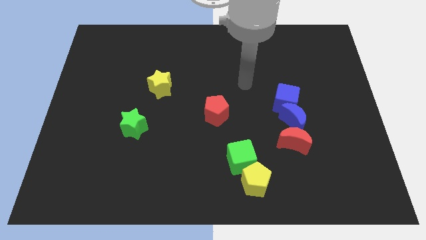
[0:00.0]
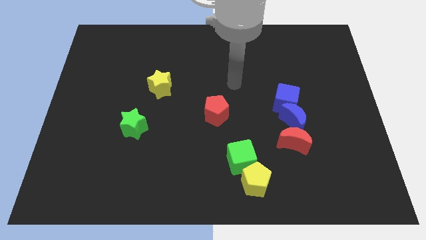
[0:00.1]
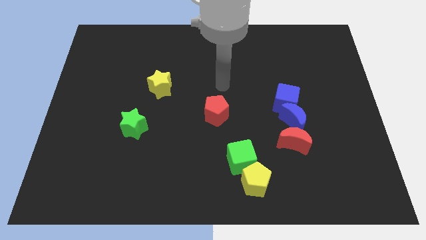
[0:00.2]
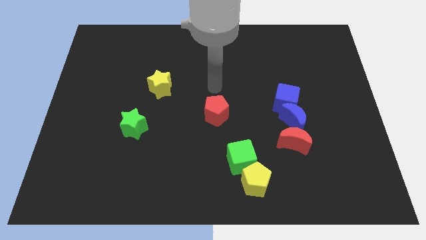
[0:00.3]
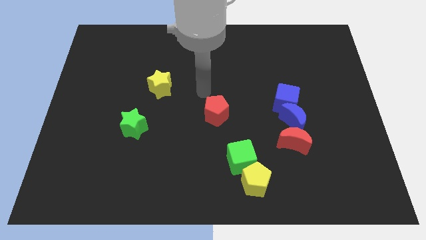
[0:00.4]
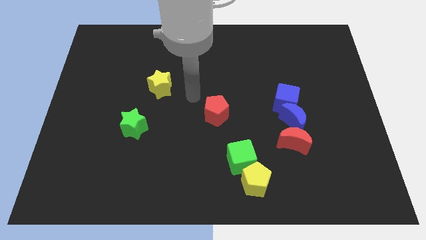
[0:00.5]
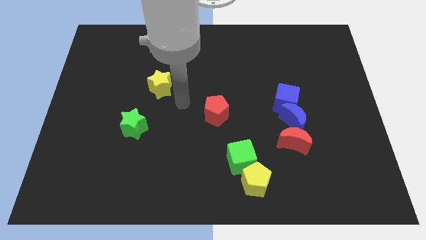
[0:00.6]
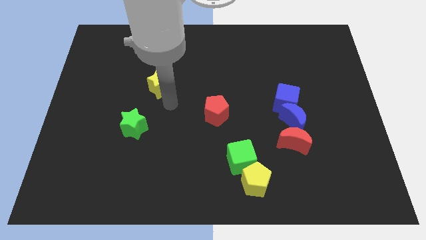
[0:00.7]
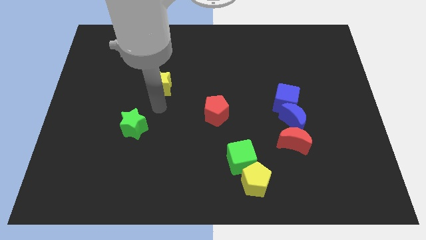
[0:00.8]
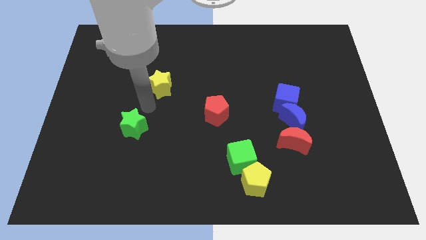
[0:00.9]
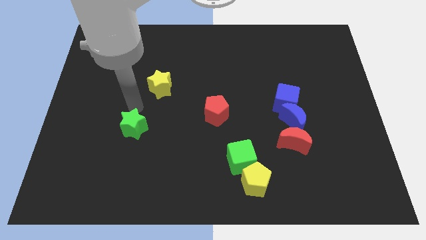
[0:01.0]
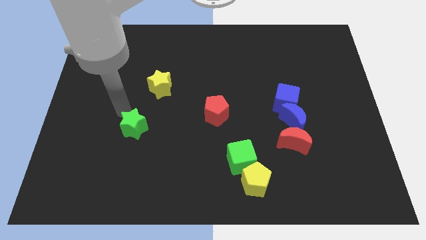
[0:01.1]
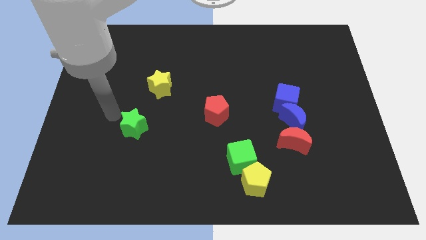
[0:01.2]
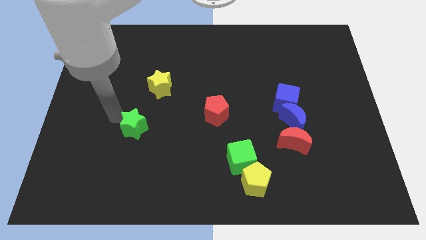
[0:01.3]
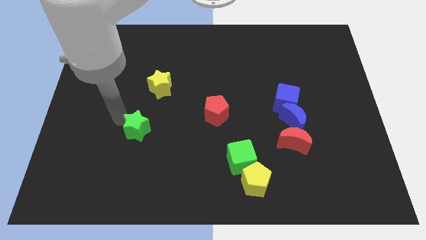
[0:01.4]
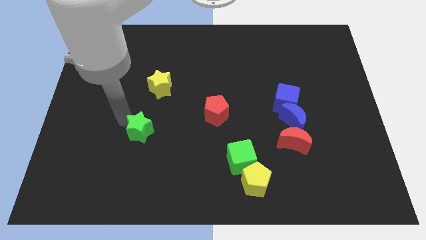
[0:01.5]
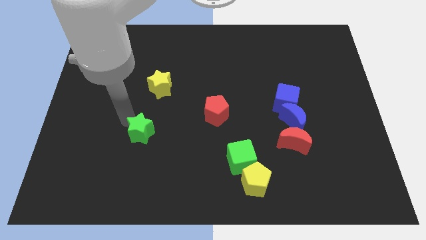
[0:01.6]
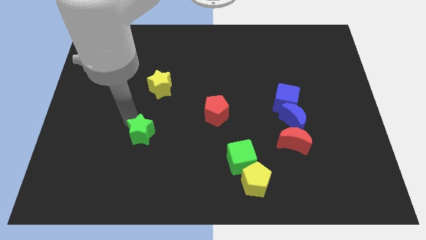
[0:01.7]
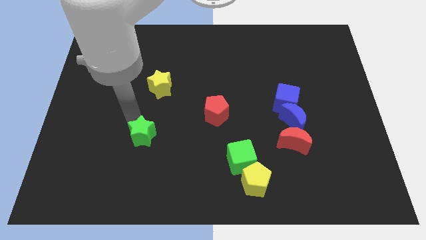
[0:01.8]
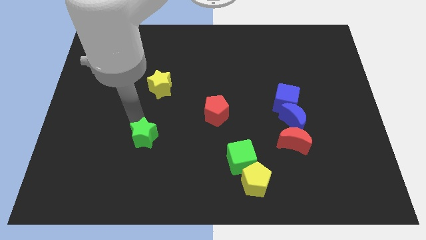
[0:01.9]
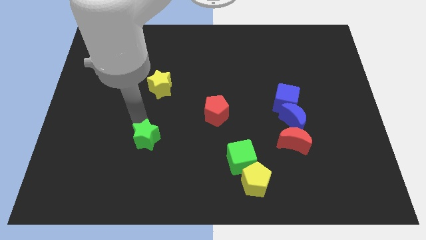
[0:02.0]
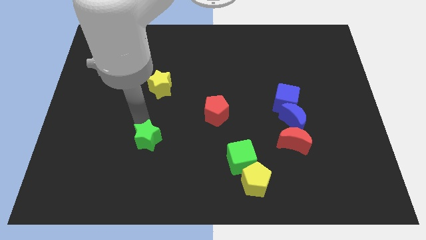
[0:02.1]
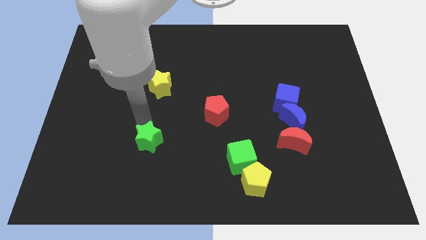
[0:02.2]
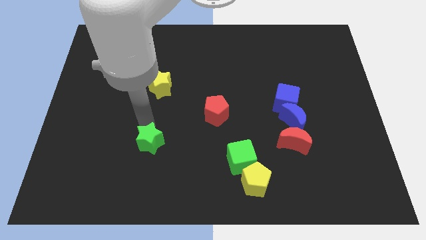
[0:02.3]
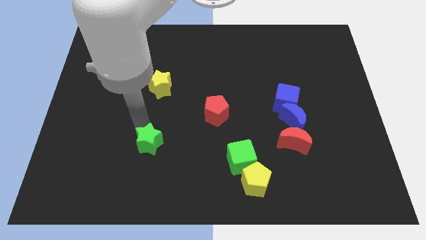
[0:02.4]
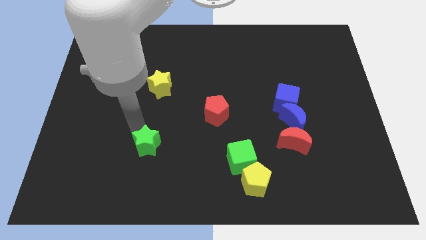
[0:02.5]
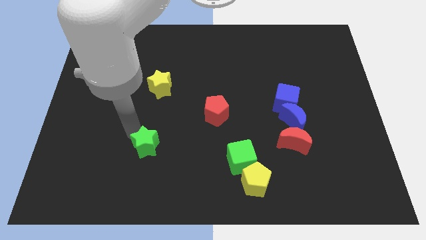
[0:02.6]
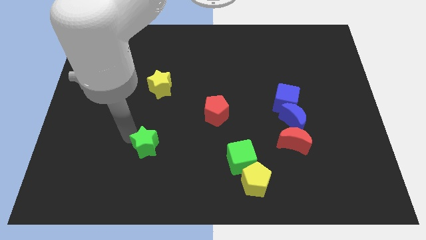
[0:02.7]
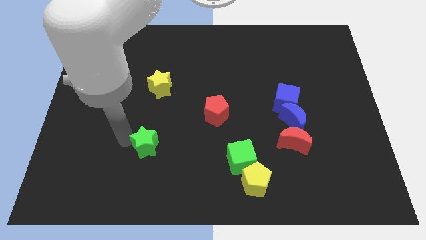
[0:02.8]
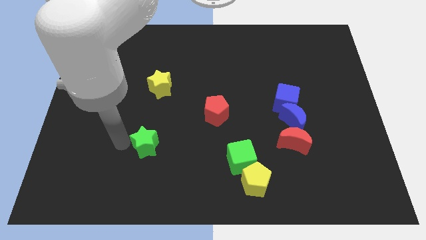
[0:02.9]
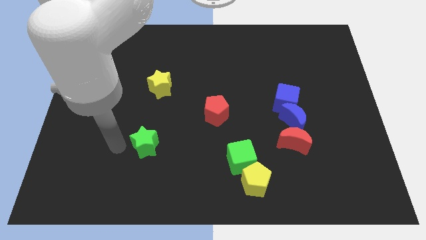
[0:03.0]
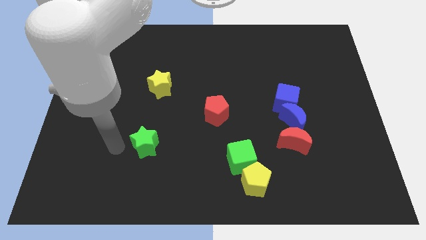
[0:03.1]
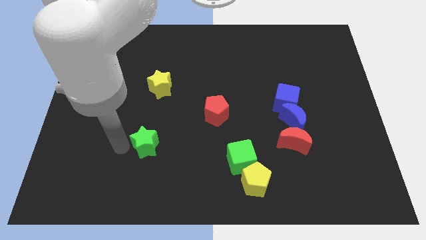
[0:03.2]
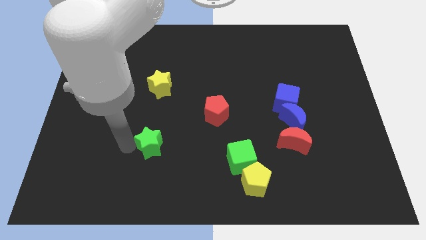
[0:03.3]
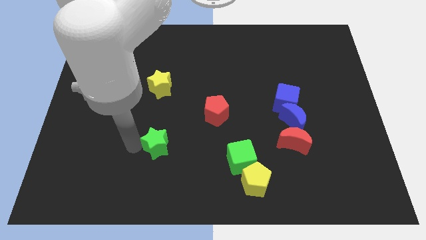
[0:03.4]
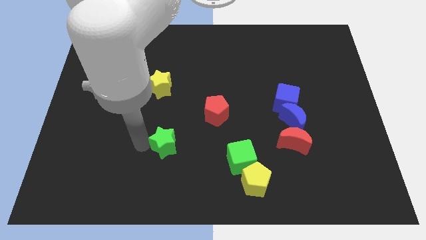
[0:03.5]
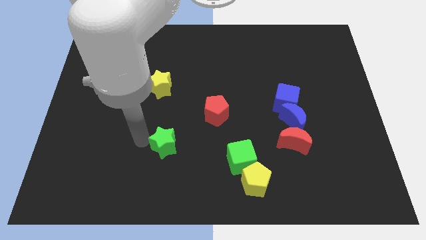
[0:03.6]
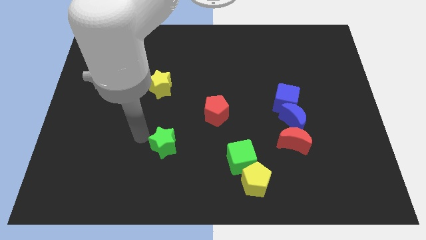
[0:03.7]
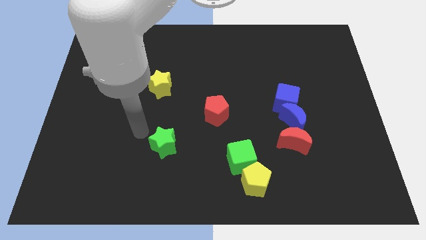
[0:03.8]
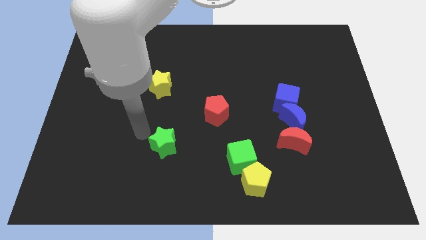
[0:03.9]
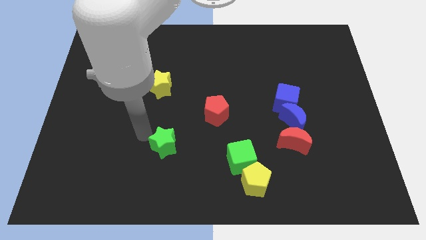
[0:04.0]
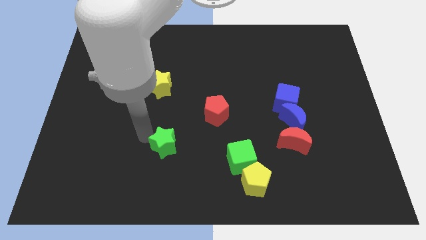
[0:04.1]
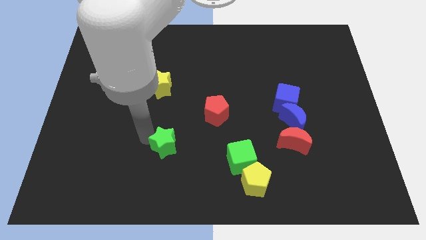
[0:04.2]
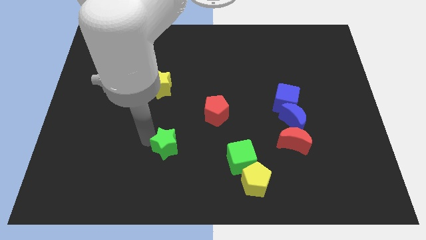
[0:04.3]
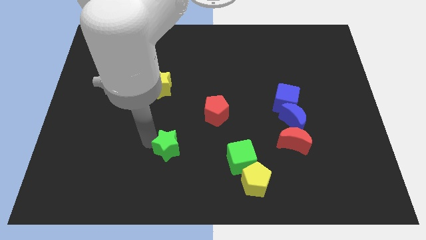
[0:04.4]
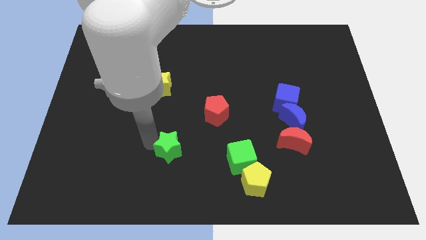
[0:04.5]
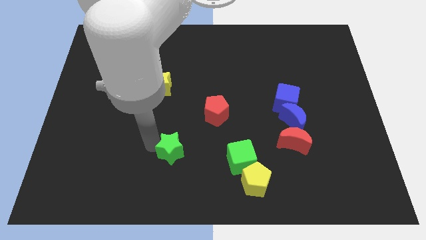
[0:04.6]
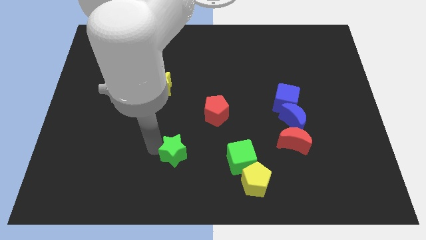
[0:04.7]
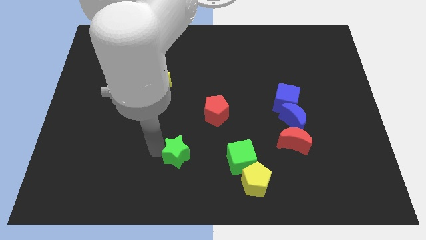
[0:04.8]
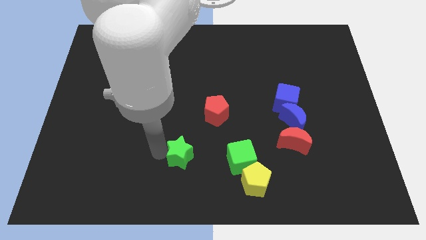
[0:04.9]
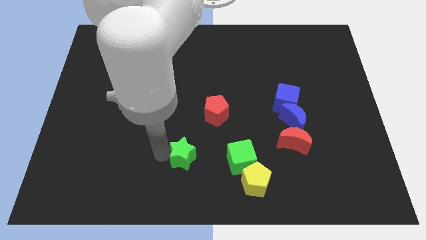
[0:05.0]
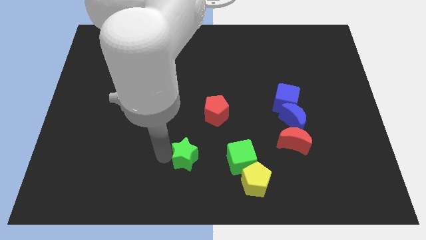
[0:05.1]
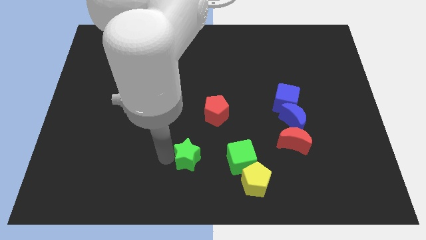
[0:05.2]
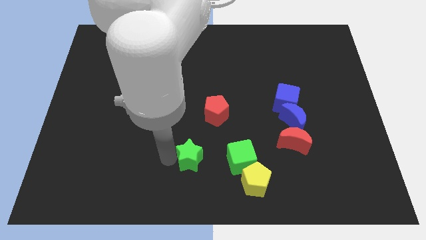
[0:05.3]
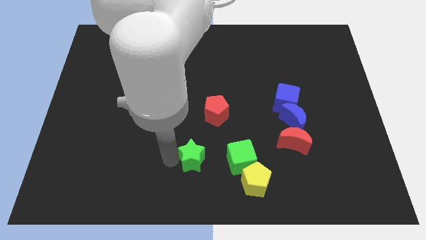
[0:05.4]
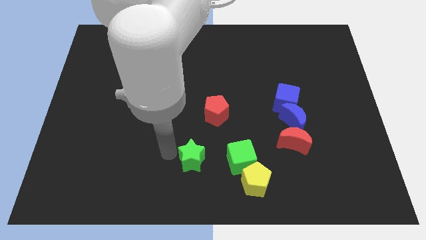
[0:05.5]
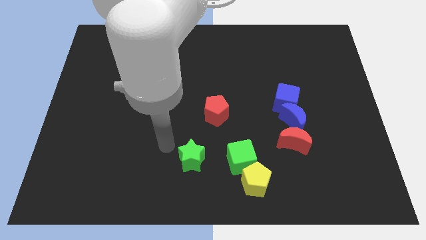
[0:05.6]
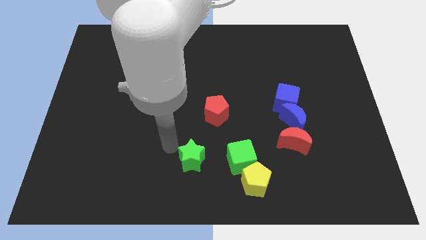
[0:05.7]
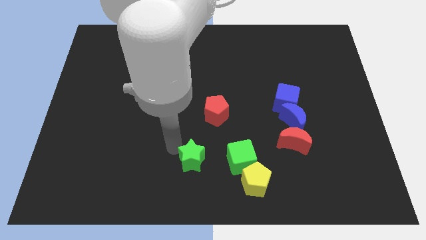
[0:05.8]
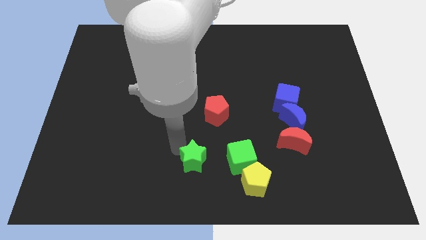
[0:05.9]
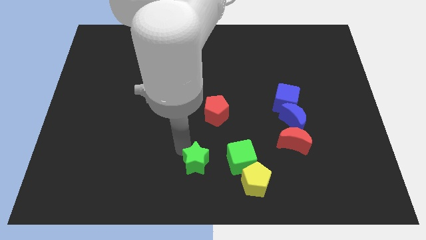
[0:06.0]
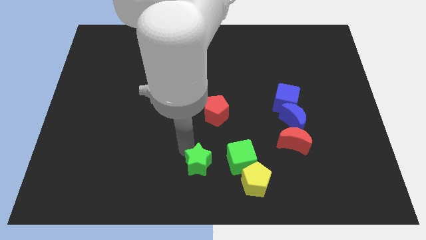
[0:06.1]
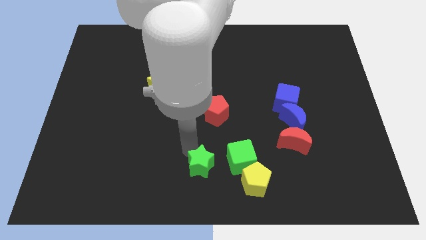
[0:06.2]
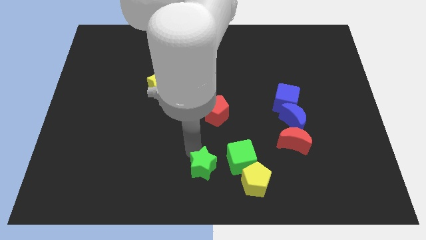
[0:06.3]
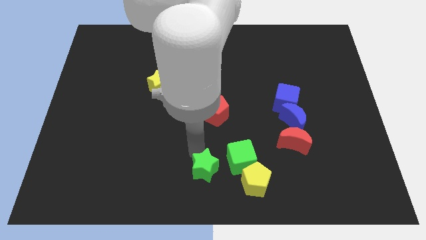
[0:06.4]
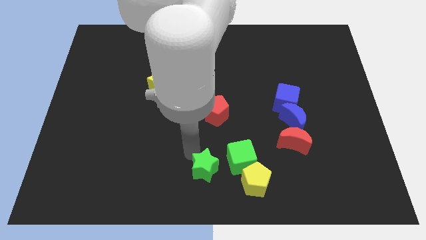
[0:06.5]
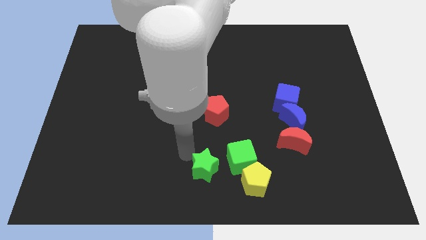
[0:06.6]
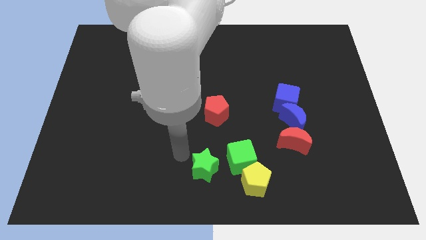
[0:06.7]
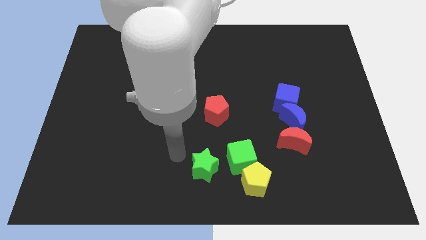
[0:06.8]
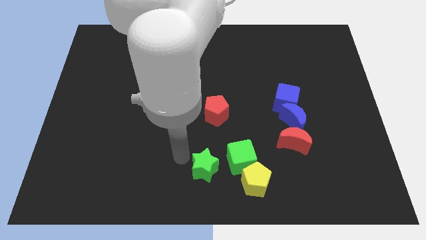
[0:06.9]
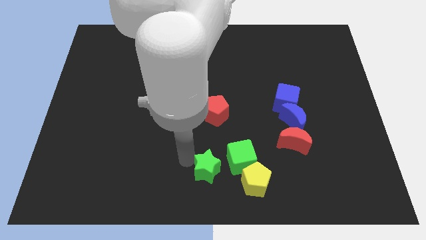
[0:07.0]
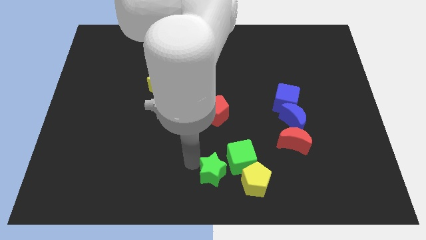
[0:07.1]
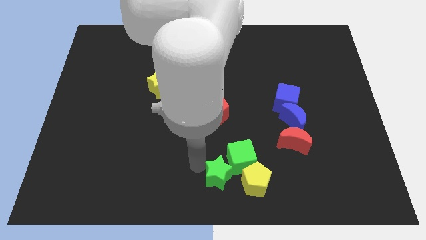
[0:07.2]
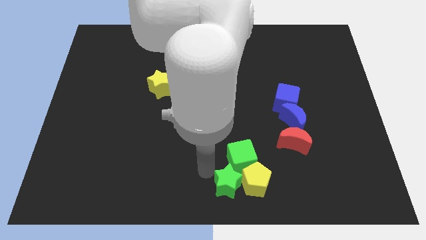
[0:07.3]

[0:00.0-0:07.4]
put the green star to the yellow pentagon
